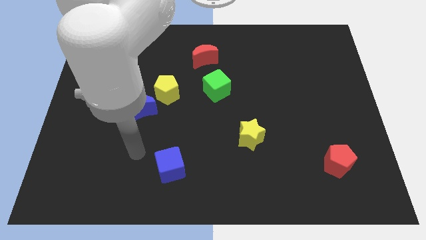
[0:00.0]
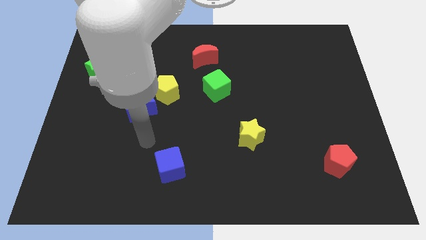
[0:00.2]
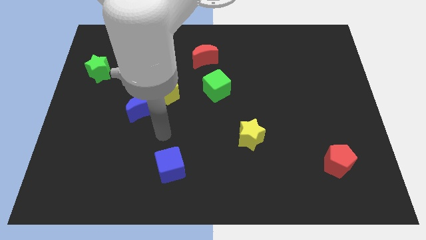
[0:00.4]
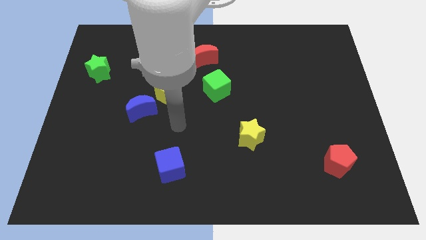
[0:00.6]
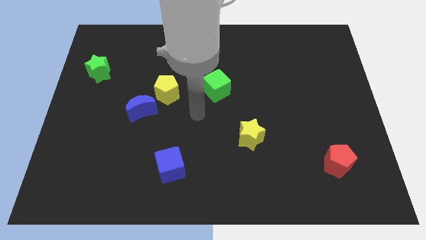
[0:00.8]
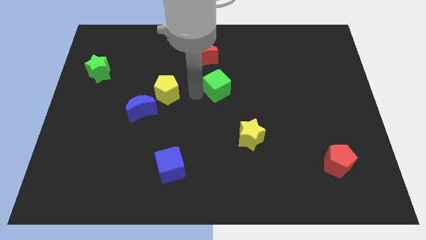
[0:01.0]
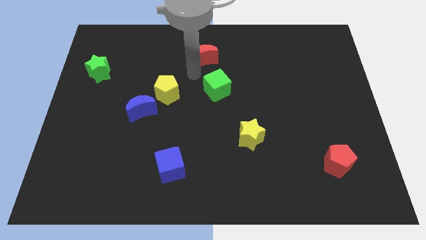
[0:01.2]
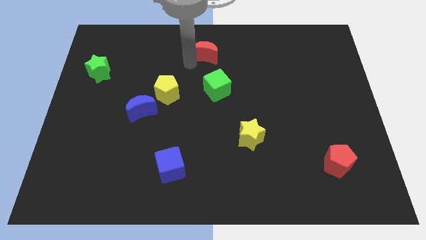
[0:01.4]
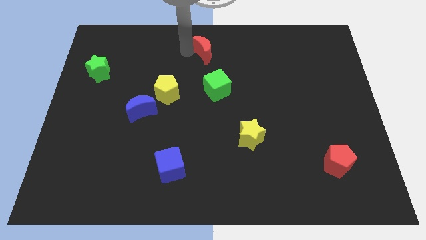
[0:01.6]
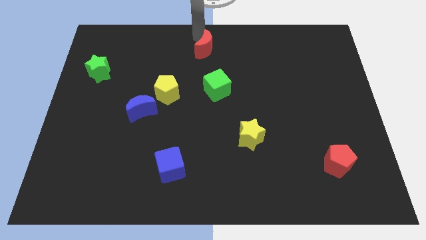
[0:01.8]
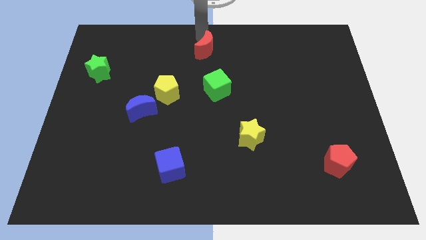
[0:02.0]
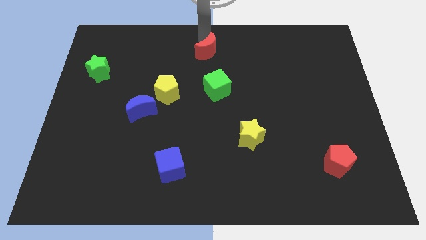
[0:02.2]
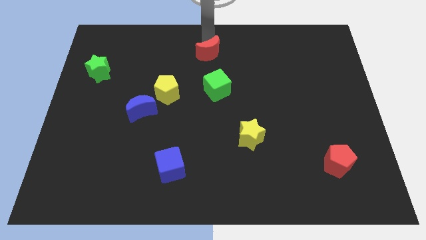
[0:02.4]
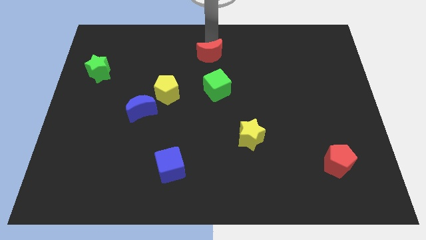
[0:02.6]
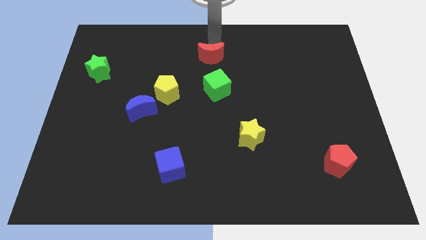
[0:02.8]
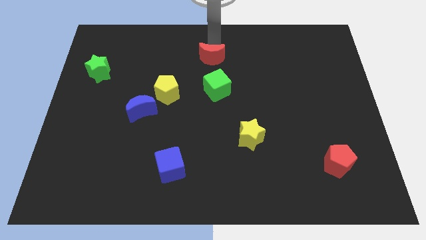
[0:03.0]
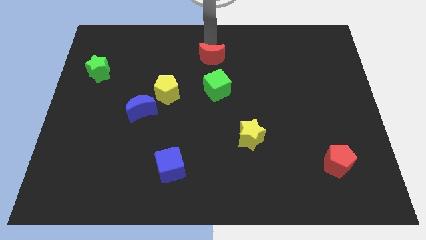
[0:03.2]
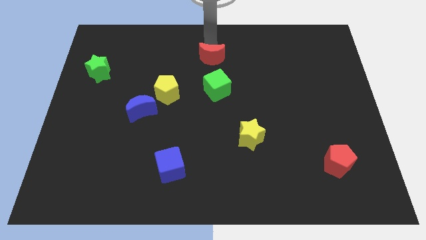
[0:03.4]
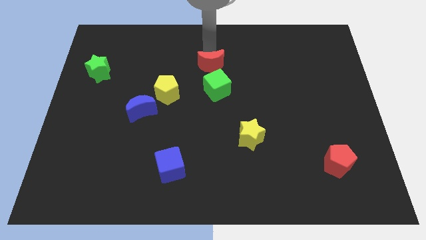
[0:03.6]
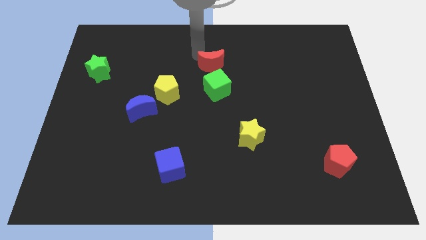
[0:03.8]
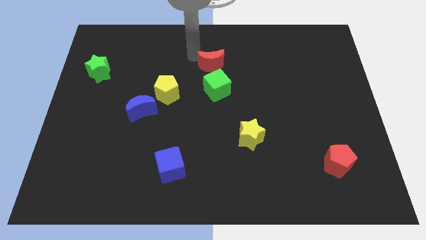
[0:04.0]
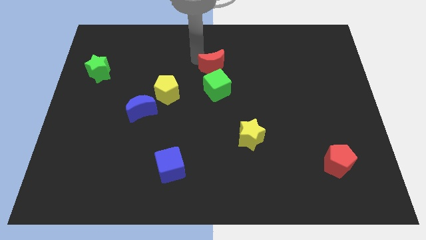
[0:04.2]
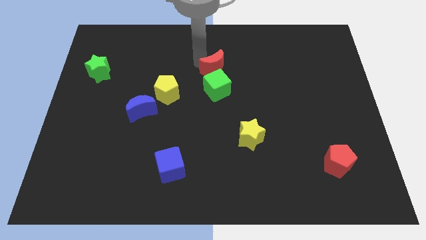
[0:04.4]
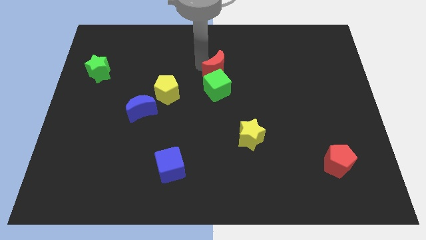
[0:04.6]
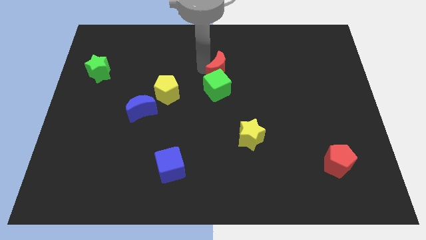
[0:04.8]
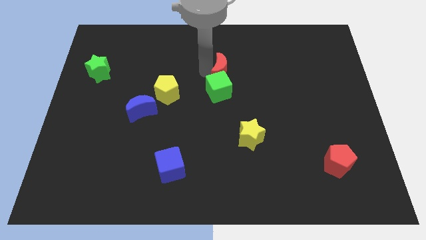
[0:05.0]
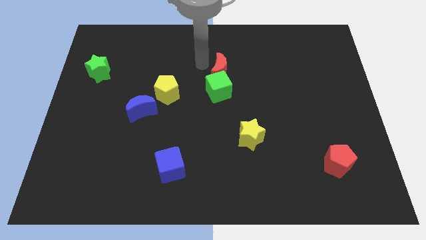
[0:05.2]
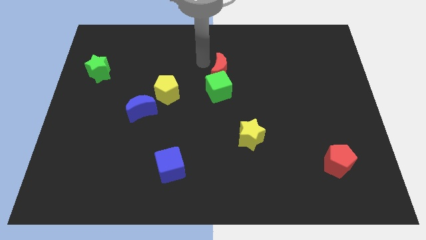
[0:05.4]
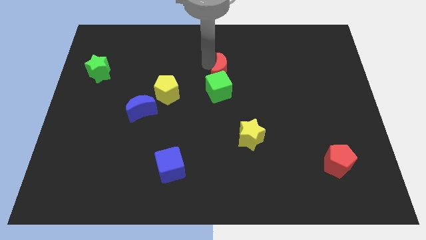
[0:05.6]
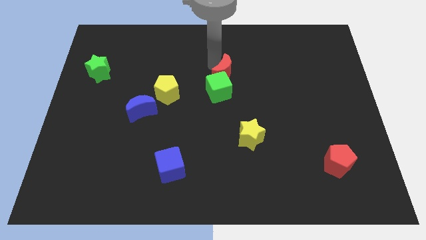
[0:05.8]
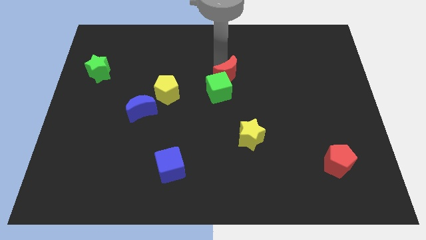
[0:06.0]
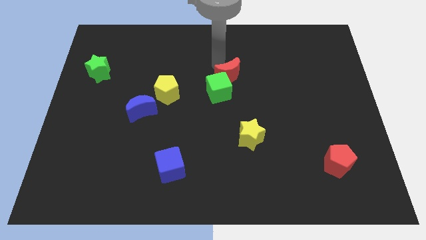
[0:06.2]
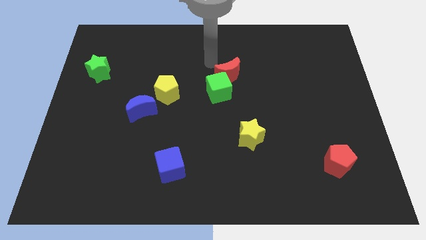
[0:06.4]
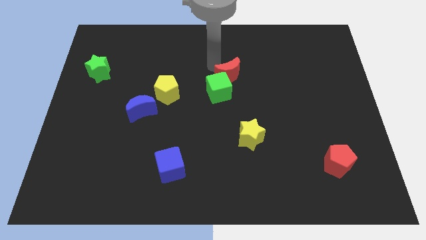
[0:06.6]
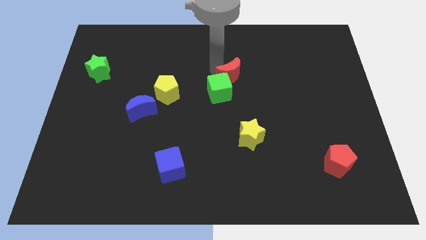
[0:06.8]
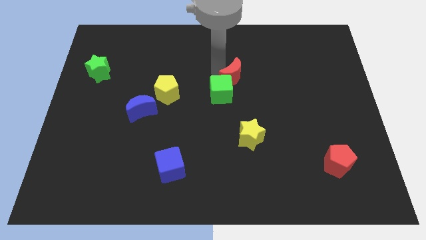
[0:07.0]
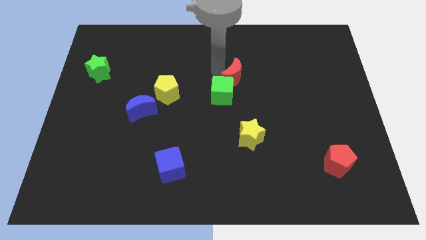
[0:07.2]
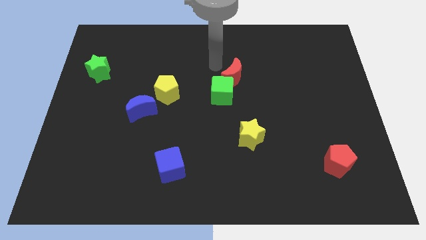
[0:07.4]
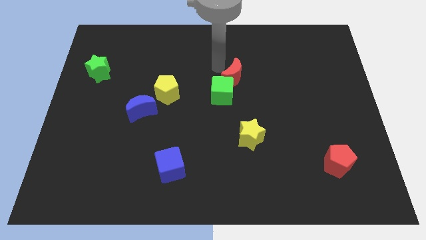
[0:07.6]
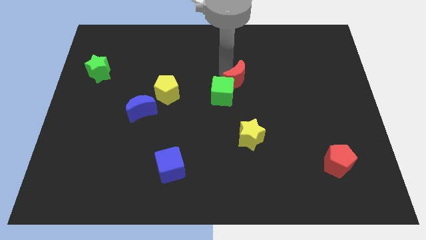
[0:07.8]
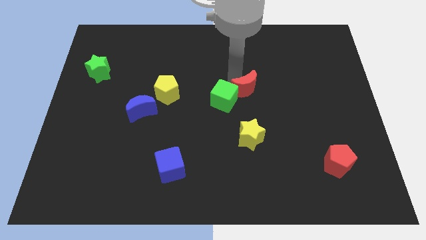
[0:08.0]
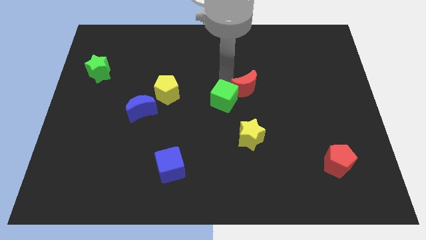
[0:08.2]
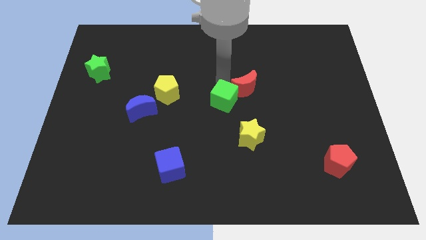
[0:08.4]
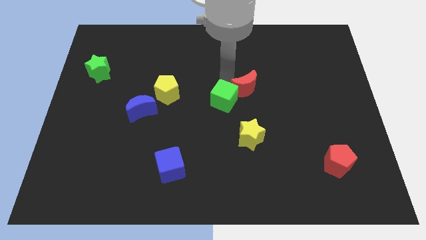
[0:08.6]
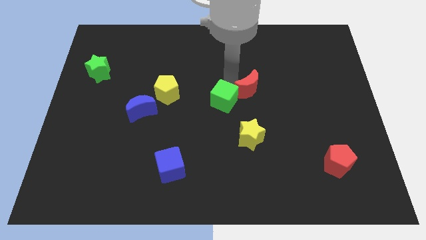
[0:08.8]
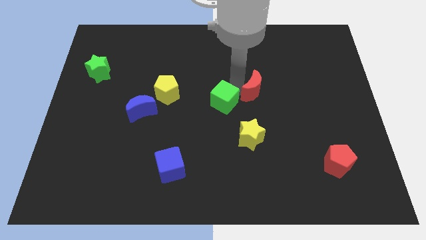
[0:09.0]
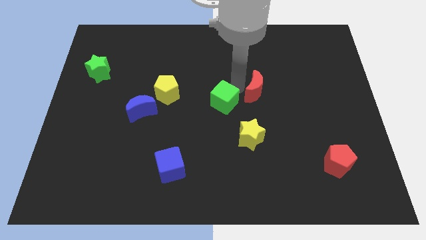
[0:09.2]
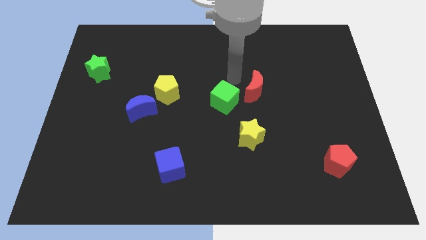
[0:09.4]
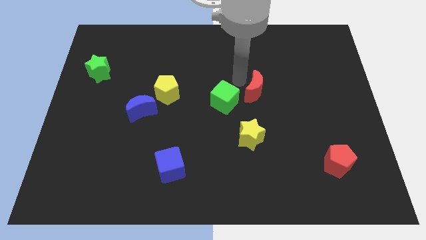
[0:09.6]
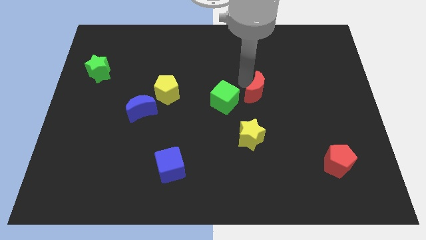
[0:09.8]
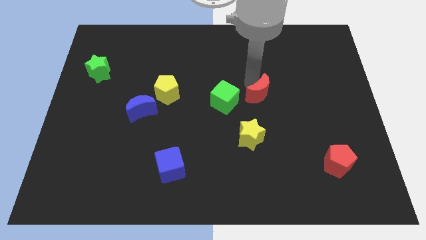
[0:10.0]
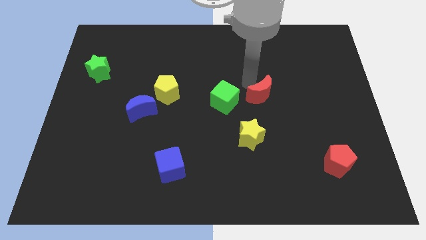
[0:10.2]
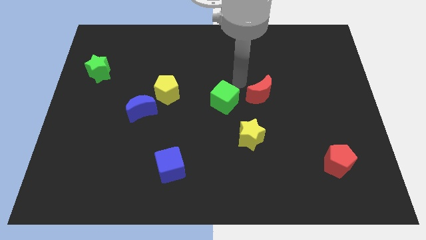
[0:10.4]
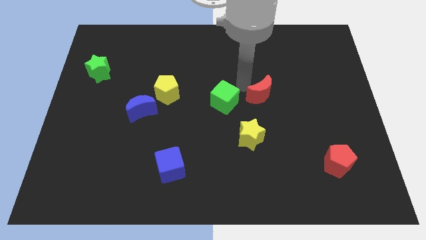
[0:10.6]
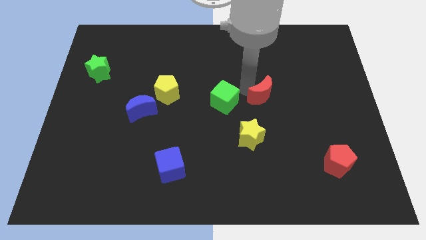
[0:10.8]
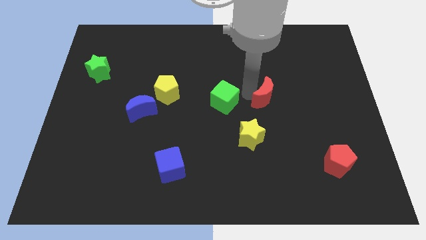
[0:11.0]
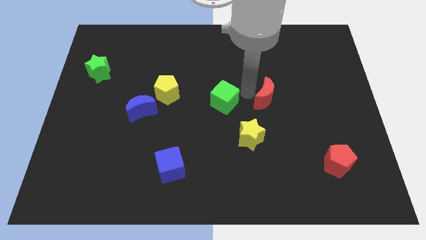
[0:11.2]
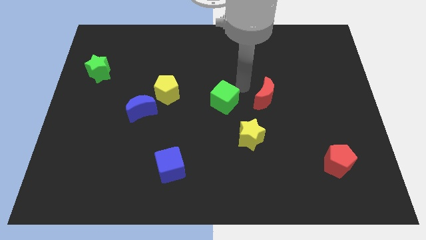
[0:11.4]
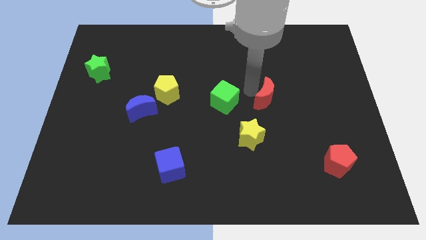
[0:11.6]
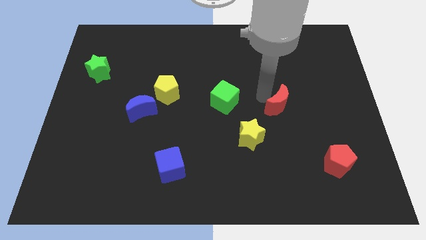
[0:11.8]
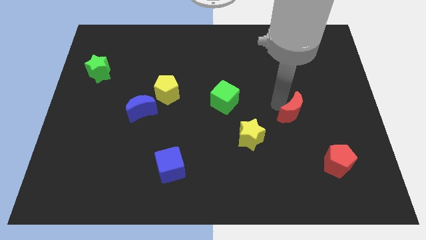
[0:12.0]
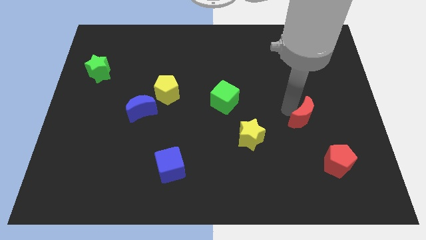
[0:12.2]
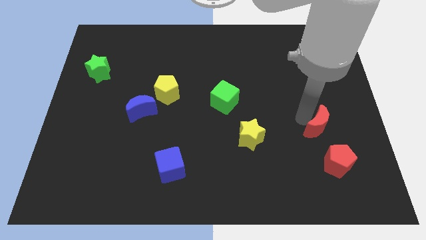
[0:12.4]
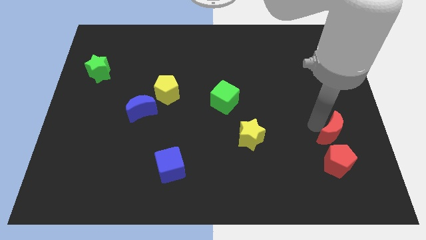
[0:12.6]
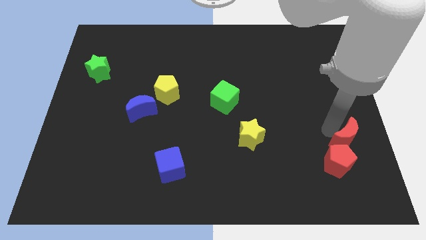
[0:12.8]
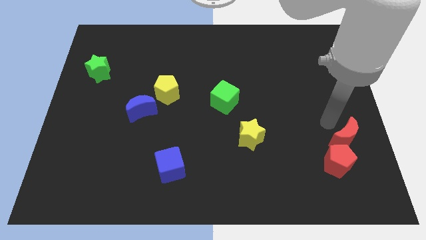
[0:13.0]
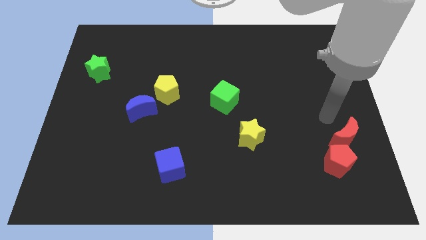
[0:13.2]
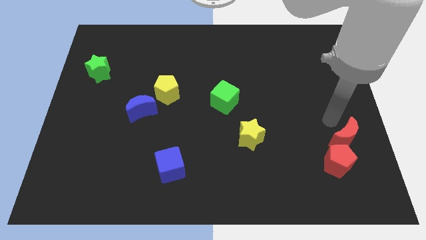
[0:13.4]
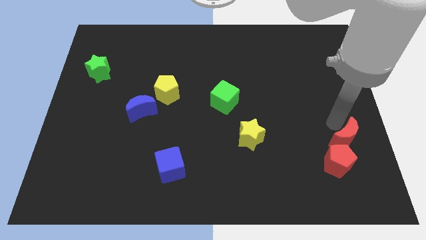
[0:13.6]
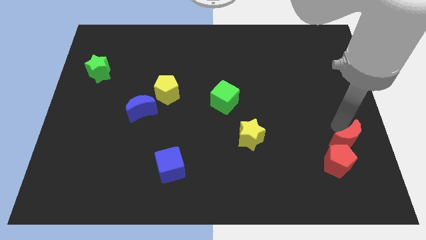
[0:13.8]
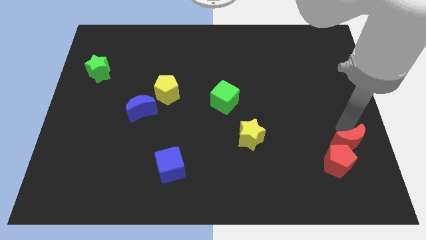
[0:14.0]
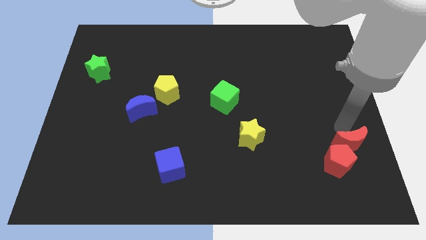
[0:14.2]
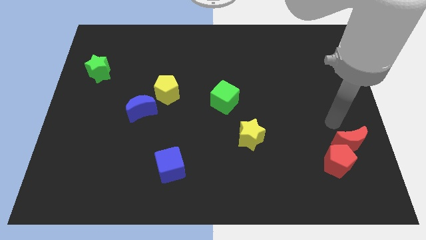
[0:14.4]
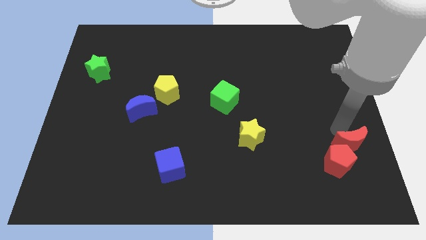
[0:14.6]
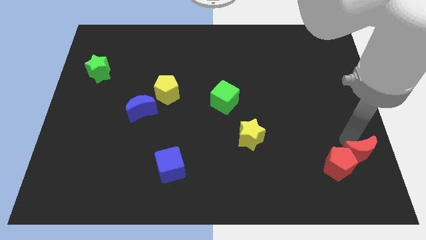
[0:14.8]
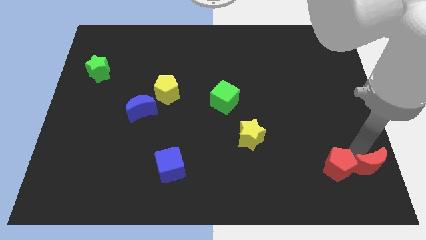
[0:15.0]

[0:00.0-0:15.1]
slide the red moon to the bottom right corner
